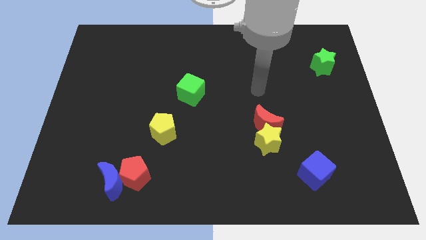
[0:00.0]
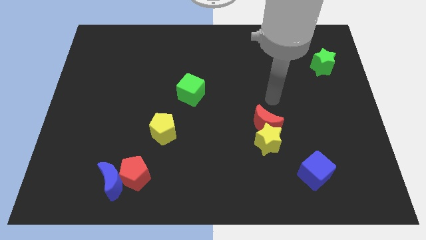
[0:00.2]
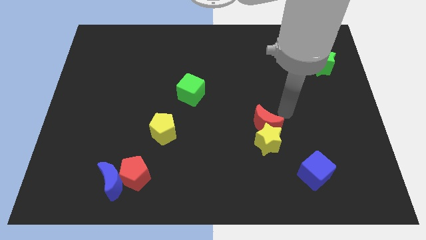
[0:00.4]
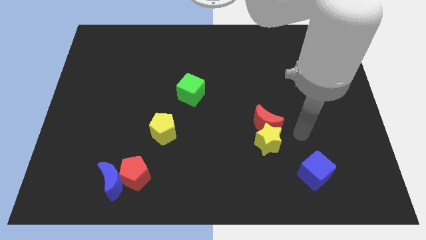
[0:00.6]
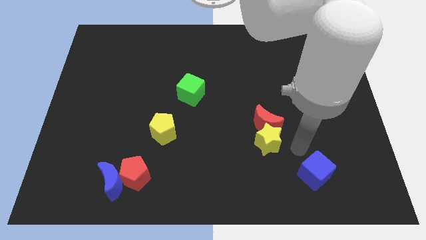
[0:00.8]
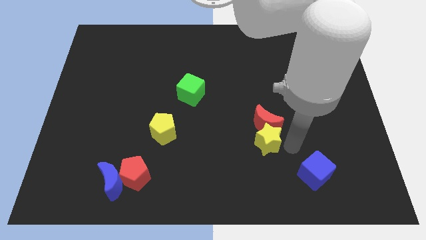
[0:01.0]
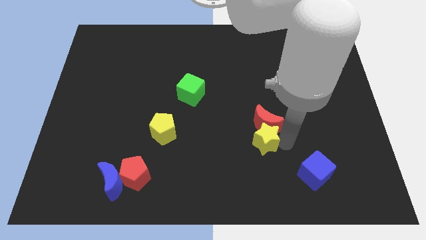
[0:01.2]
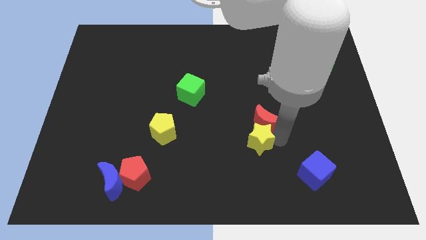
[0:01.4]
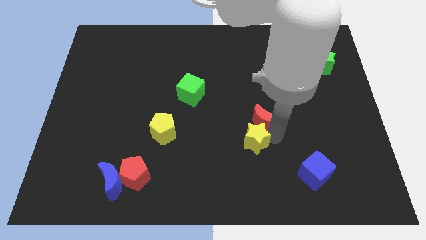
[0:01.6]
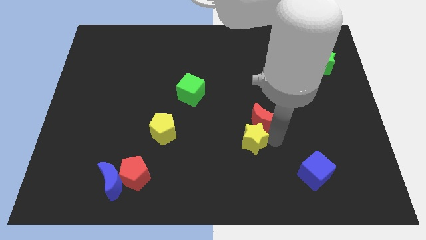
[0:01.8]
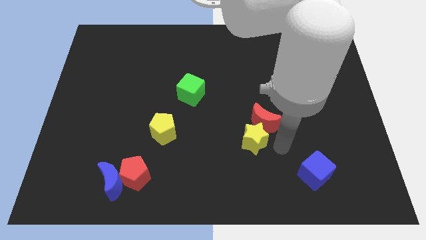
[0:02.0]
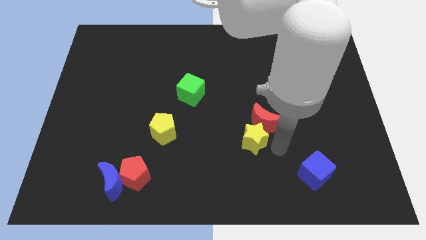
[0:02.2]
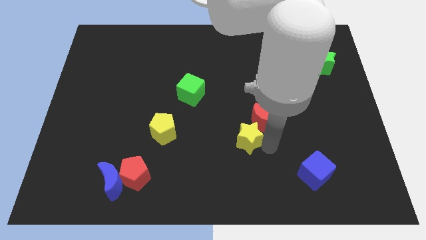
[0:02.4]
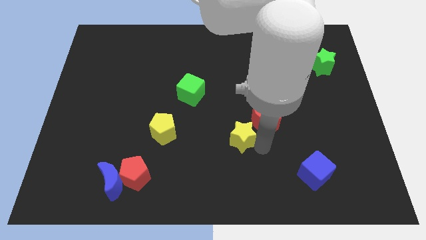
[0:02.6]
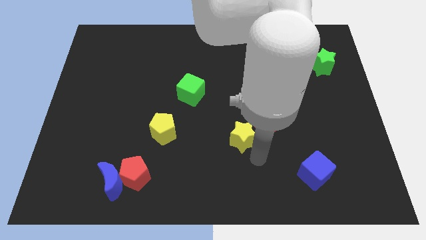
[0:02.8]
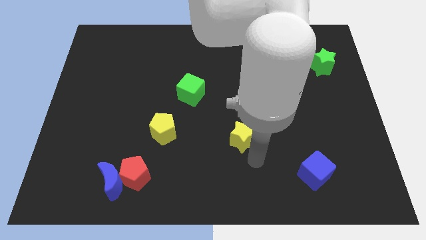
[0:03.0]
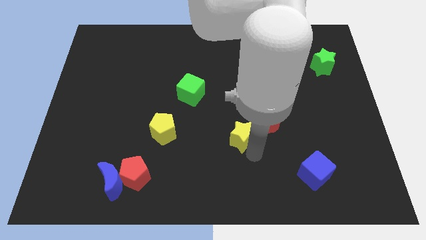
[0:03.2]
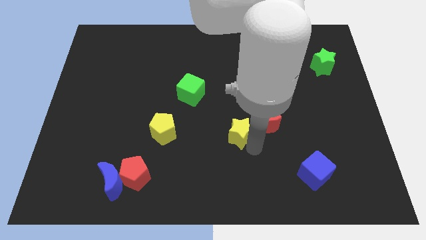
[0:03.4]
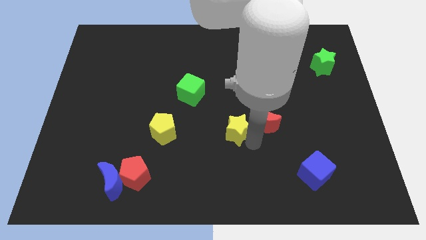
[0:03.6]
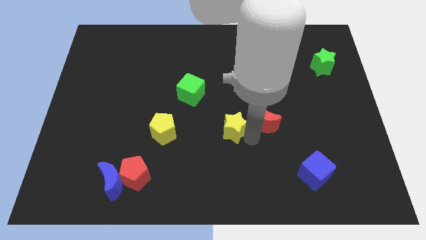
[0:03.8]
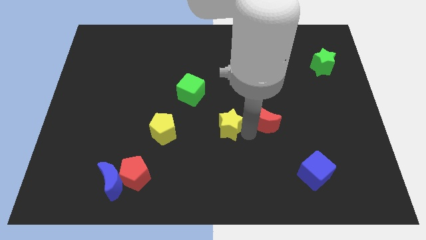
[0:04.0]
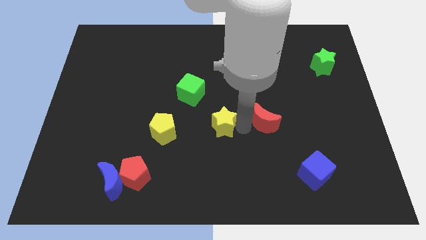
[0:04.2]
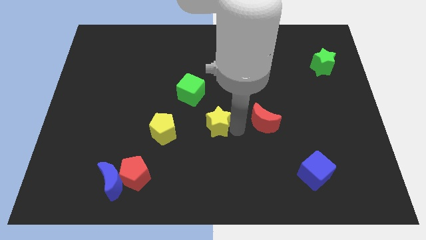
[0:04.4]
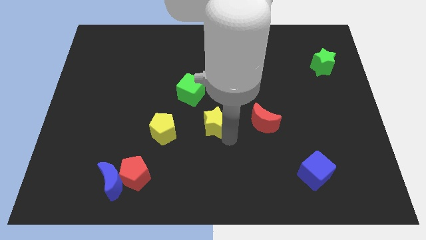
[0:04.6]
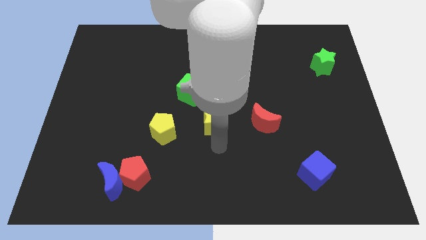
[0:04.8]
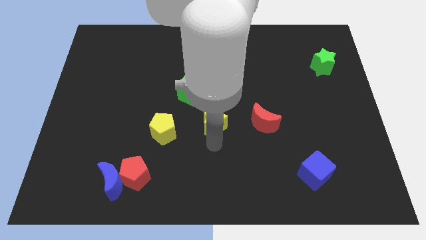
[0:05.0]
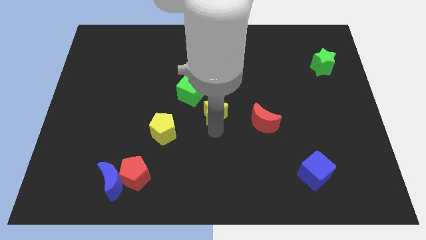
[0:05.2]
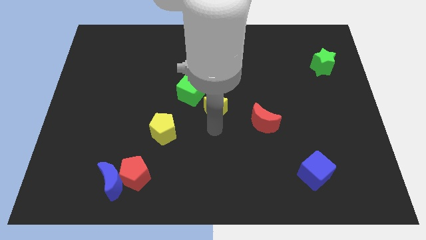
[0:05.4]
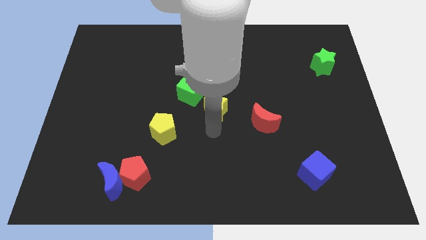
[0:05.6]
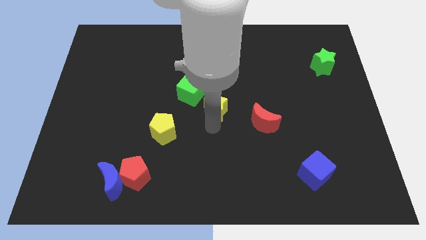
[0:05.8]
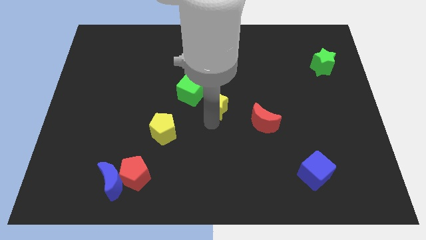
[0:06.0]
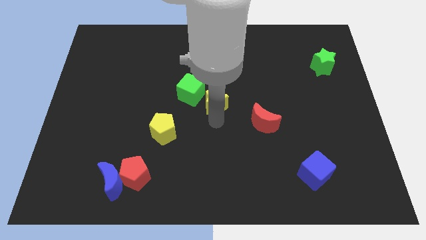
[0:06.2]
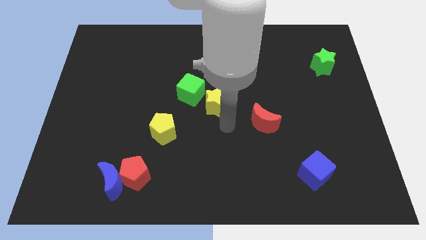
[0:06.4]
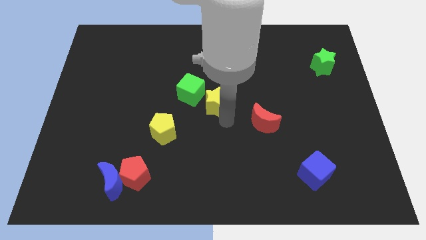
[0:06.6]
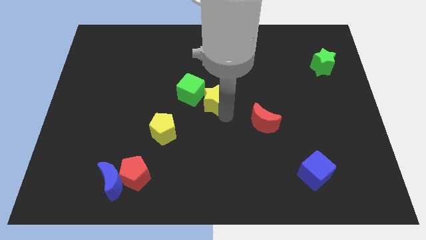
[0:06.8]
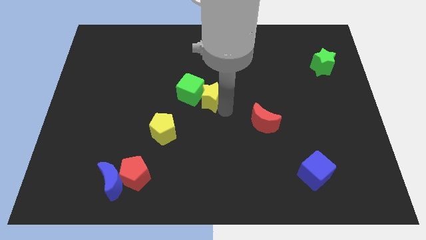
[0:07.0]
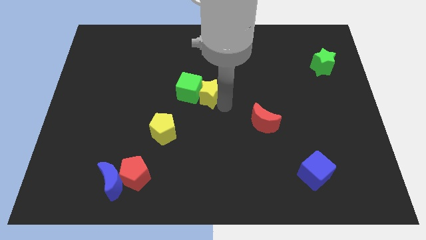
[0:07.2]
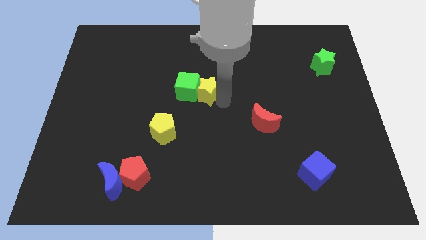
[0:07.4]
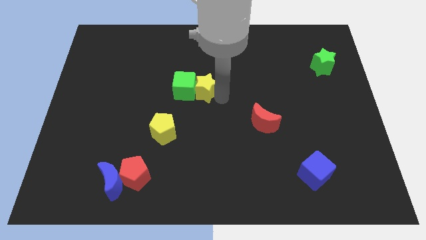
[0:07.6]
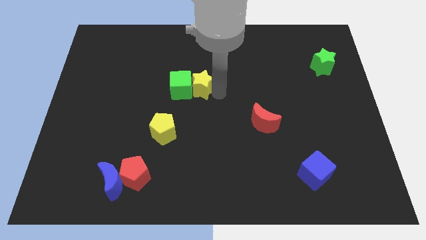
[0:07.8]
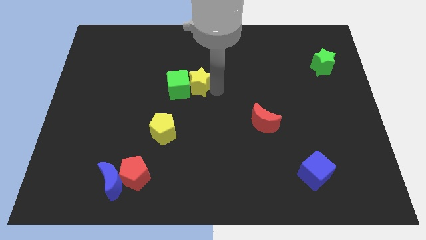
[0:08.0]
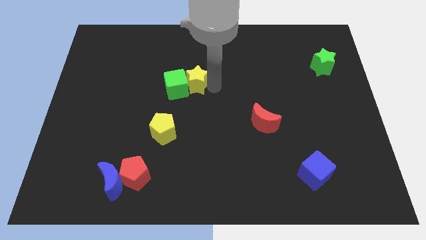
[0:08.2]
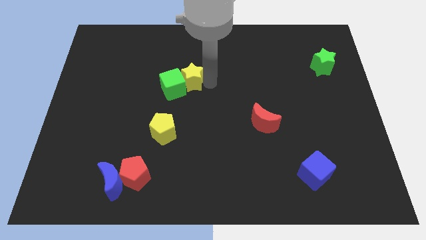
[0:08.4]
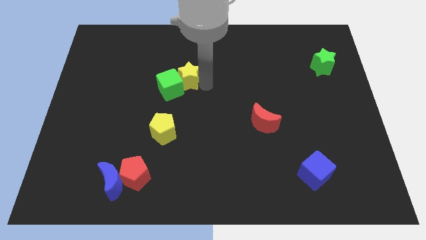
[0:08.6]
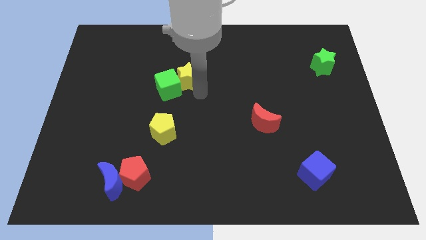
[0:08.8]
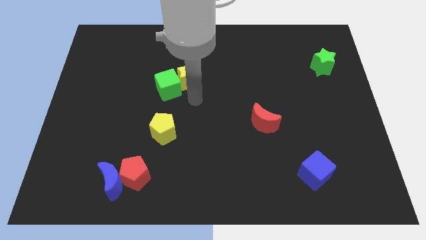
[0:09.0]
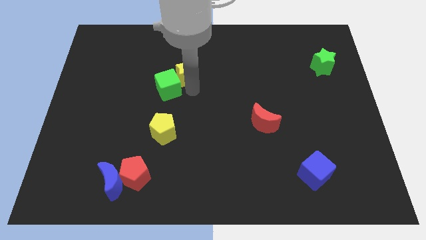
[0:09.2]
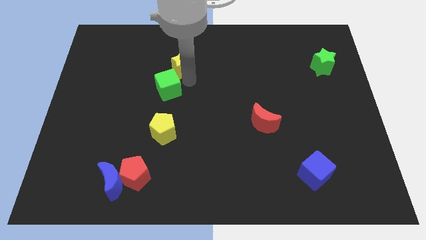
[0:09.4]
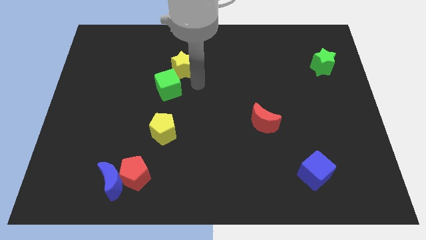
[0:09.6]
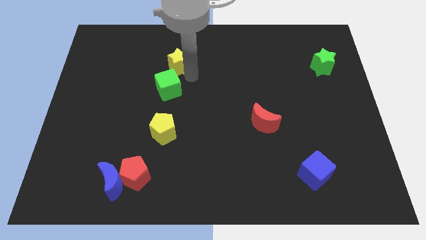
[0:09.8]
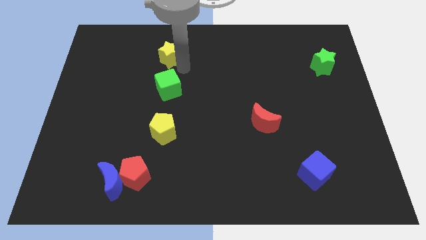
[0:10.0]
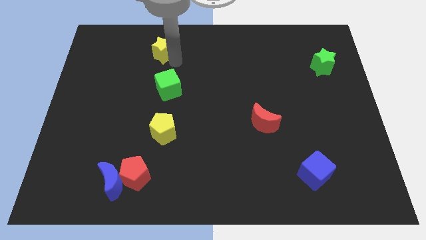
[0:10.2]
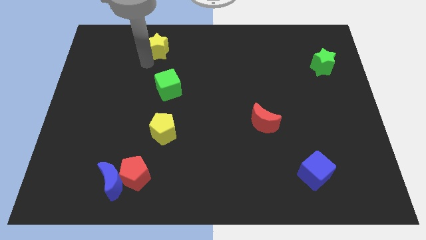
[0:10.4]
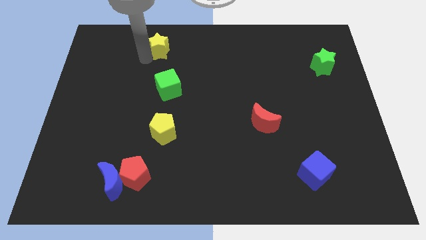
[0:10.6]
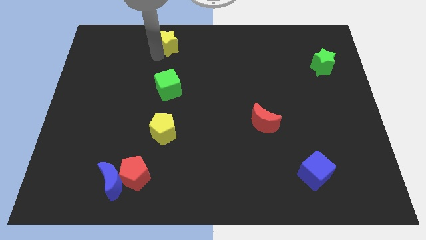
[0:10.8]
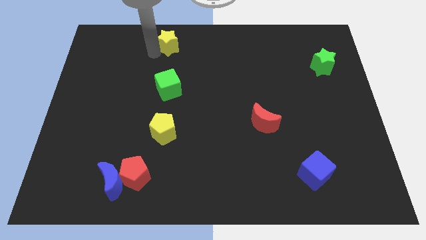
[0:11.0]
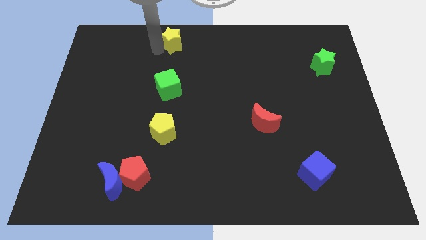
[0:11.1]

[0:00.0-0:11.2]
move the yellow star to the towards your base

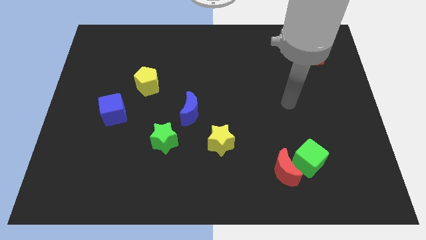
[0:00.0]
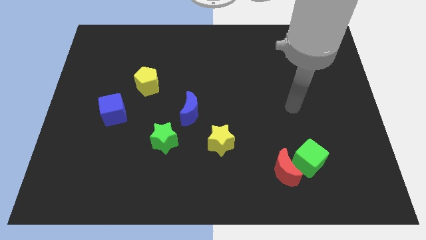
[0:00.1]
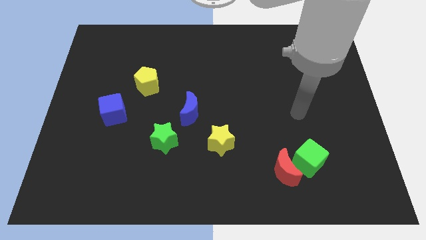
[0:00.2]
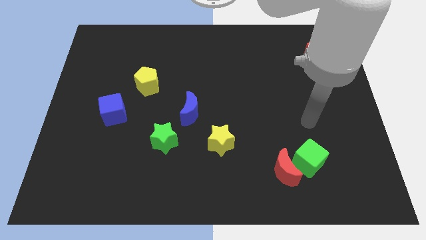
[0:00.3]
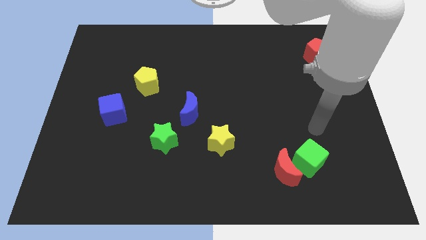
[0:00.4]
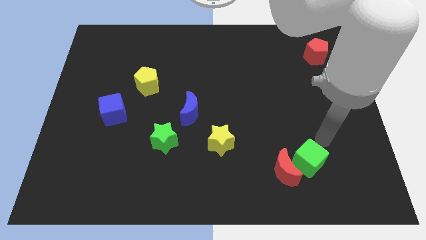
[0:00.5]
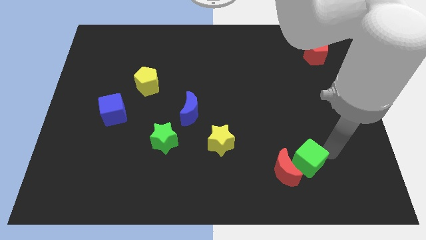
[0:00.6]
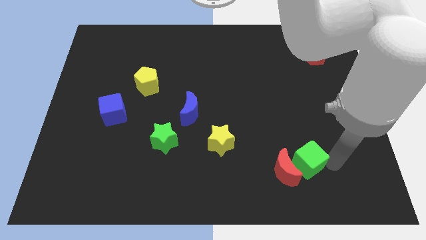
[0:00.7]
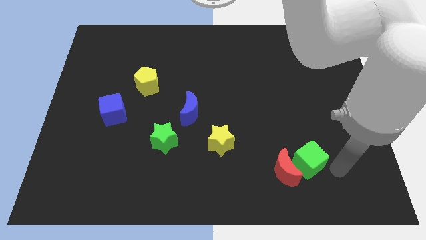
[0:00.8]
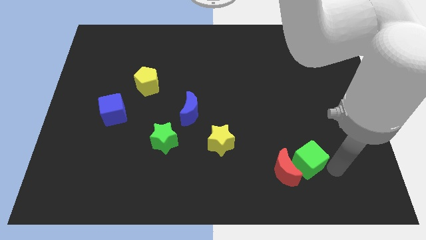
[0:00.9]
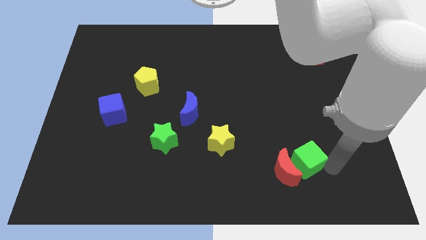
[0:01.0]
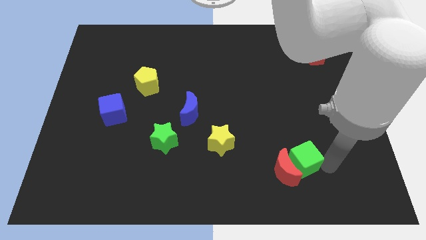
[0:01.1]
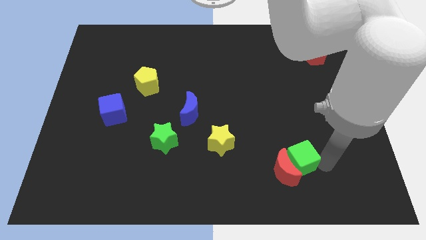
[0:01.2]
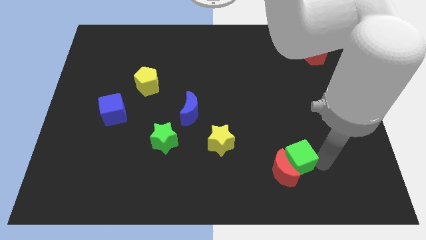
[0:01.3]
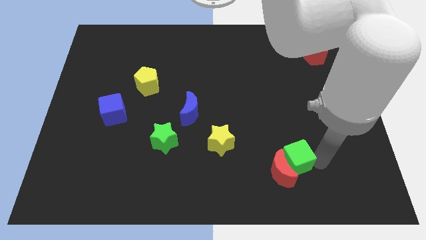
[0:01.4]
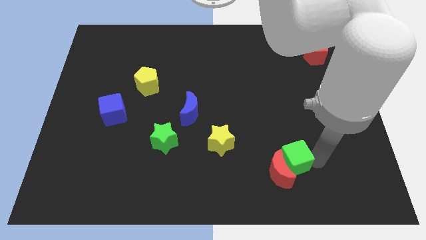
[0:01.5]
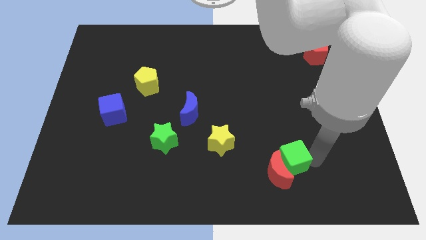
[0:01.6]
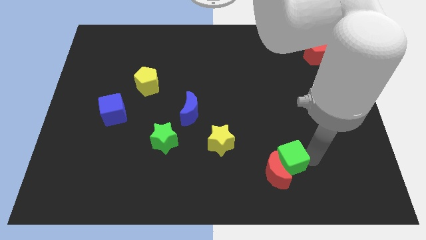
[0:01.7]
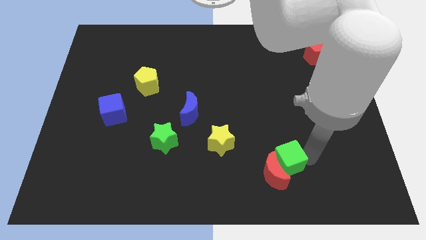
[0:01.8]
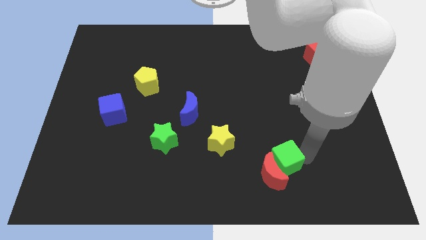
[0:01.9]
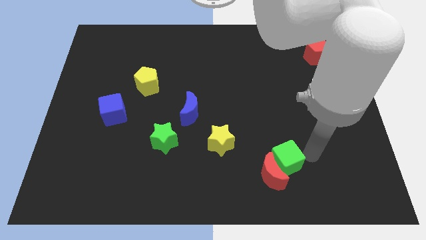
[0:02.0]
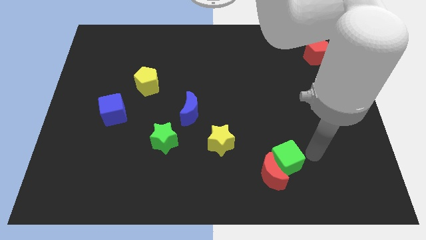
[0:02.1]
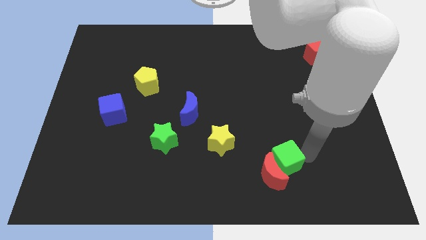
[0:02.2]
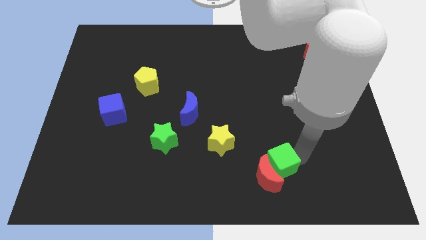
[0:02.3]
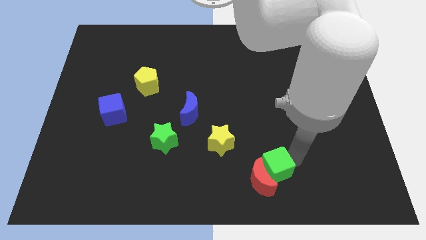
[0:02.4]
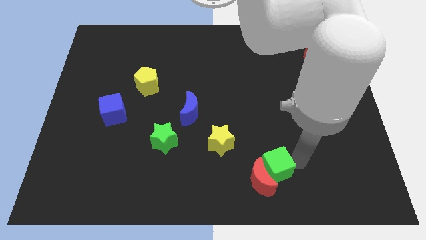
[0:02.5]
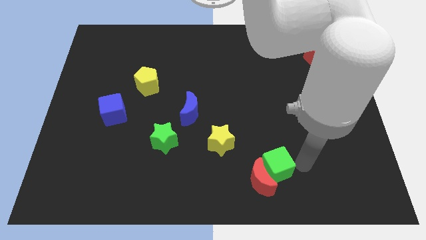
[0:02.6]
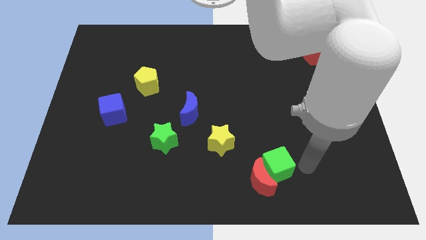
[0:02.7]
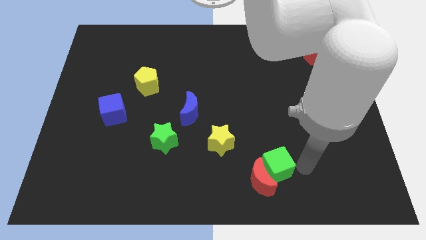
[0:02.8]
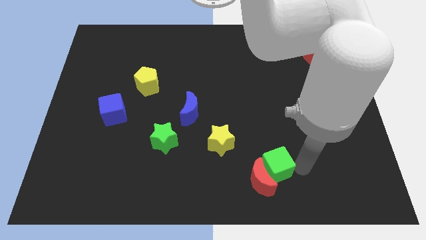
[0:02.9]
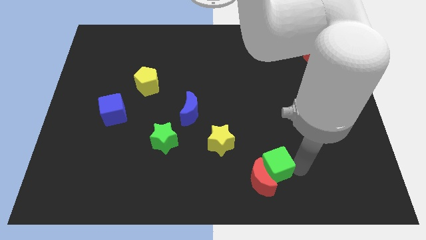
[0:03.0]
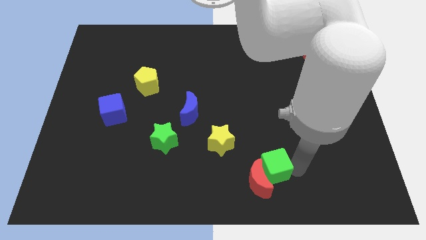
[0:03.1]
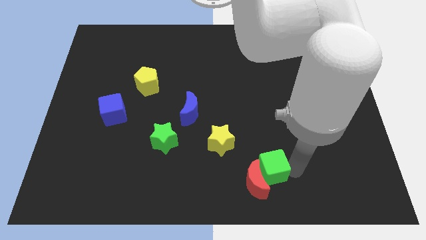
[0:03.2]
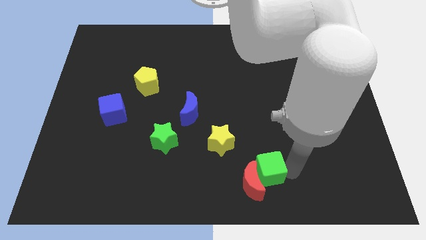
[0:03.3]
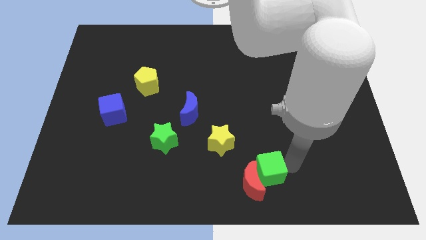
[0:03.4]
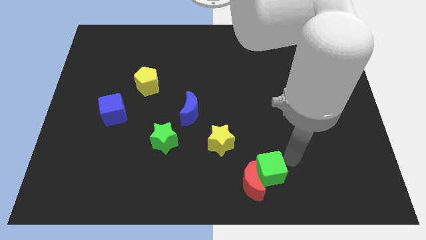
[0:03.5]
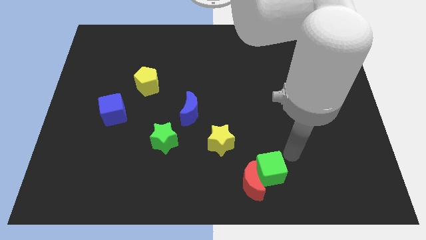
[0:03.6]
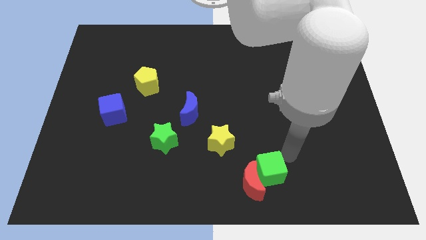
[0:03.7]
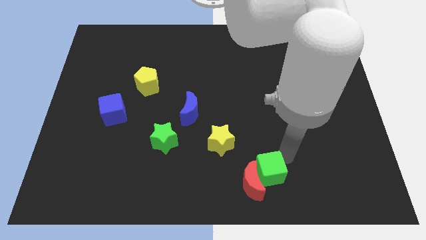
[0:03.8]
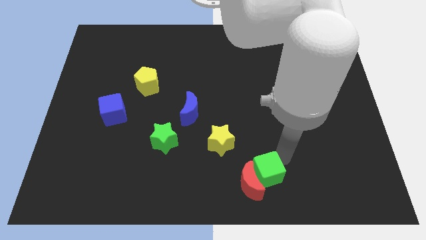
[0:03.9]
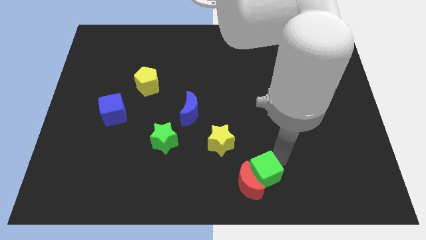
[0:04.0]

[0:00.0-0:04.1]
move the green cube to the bottom side
